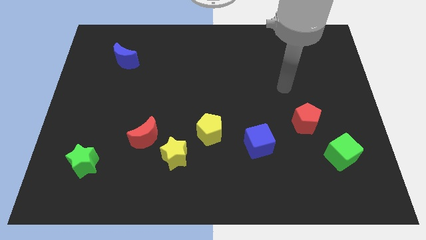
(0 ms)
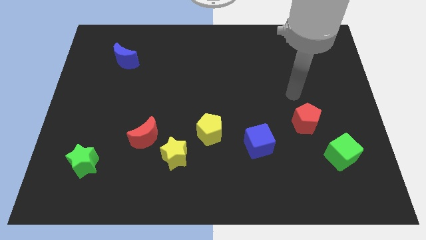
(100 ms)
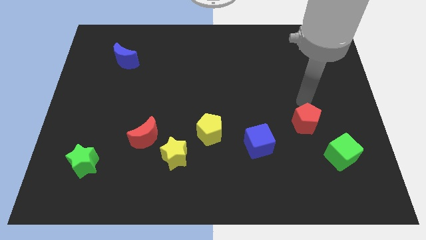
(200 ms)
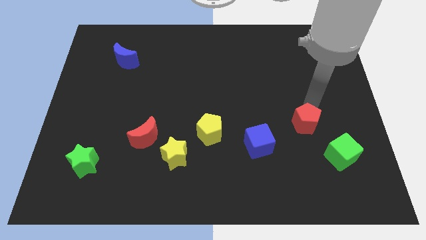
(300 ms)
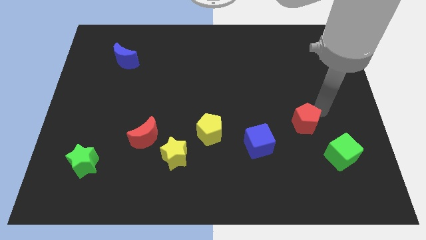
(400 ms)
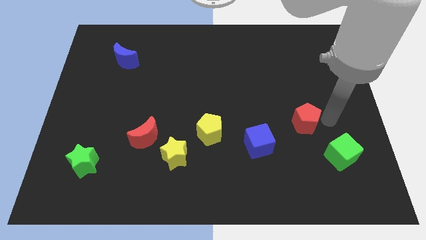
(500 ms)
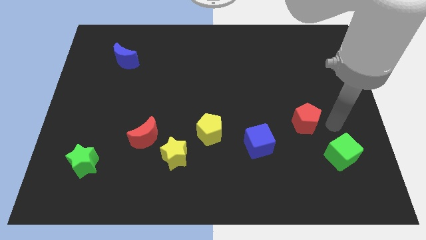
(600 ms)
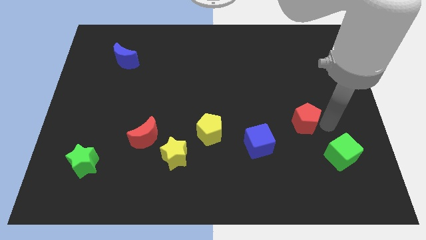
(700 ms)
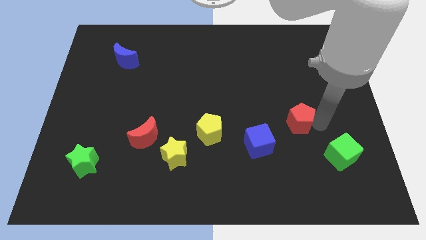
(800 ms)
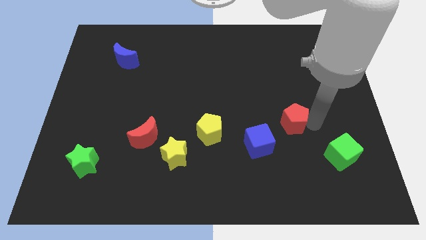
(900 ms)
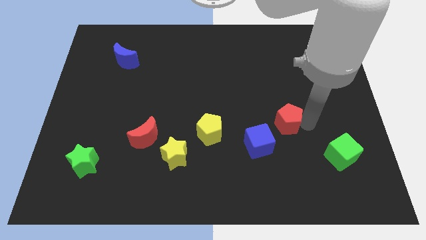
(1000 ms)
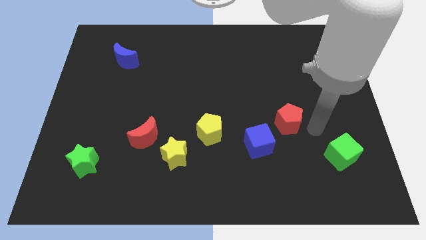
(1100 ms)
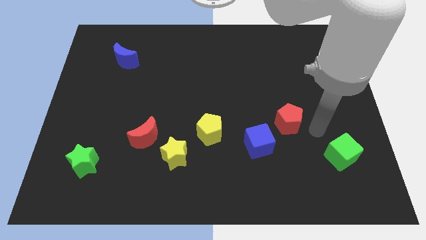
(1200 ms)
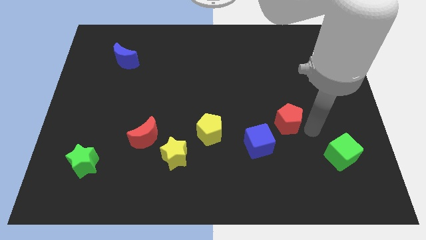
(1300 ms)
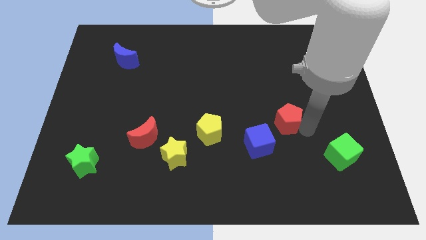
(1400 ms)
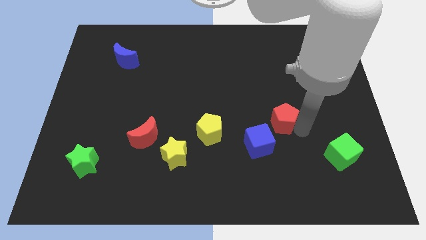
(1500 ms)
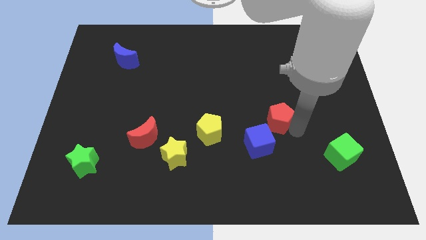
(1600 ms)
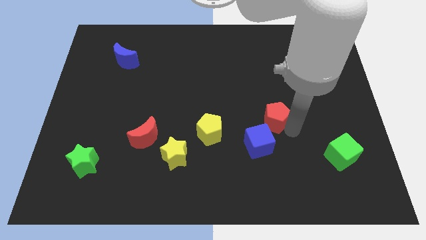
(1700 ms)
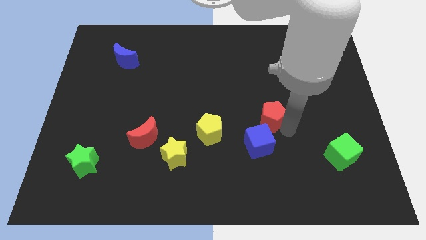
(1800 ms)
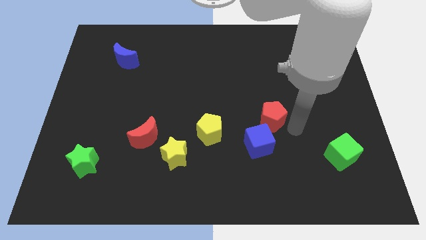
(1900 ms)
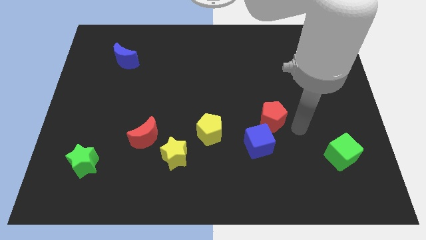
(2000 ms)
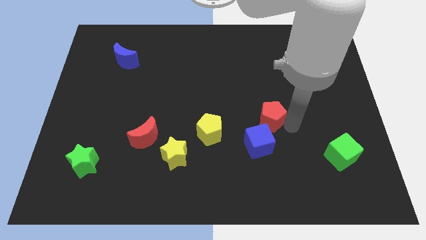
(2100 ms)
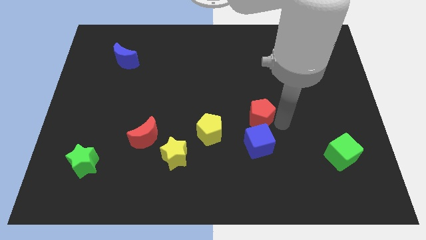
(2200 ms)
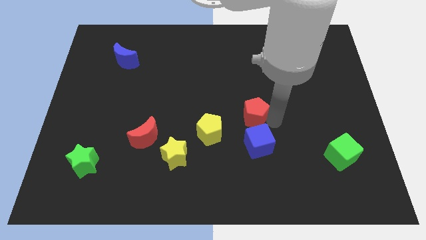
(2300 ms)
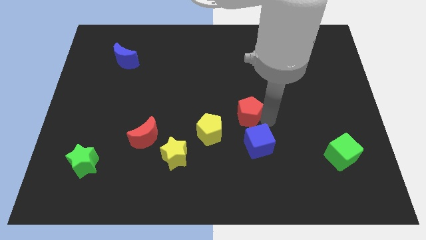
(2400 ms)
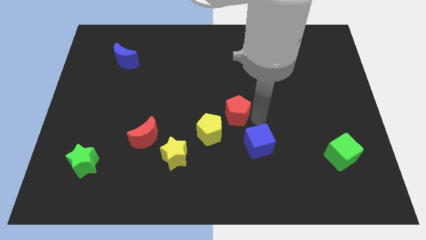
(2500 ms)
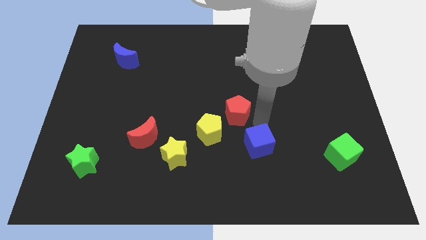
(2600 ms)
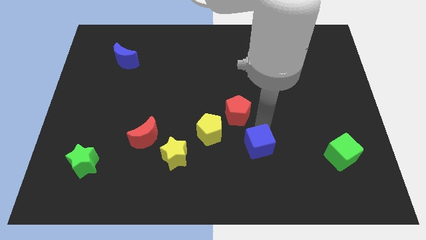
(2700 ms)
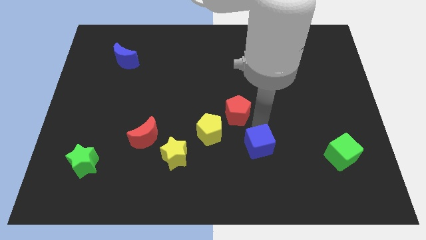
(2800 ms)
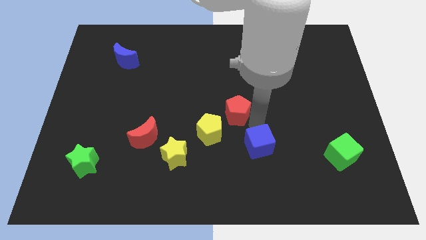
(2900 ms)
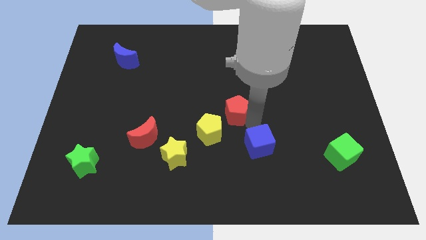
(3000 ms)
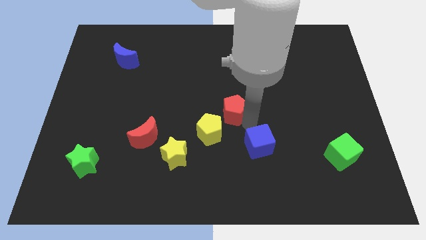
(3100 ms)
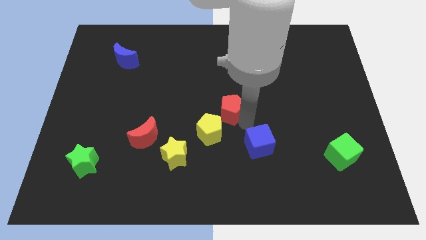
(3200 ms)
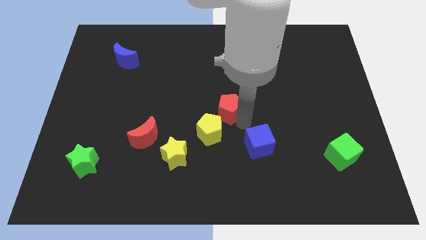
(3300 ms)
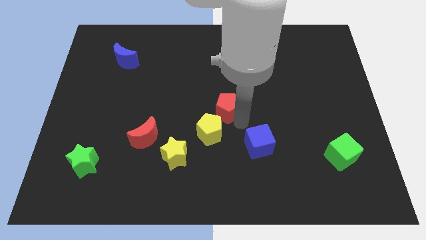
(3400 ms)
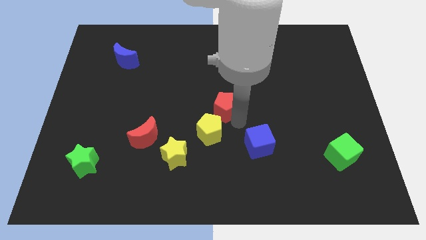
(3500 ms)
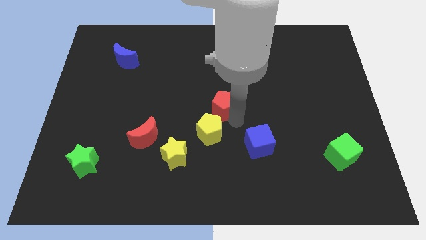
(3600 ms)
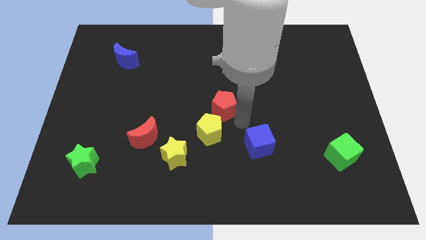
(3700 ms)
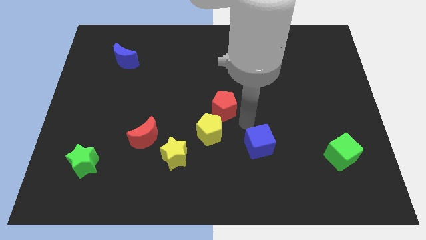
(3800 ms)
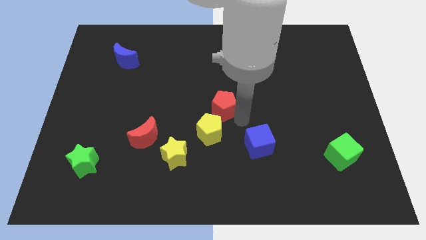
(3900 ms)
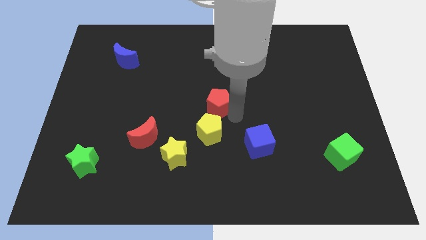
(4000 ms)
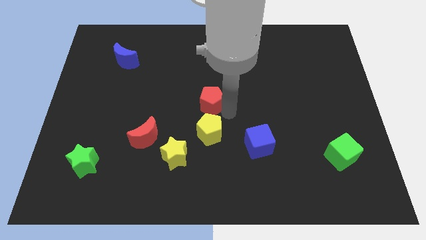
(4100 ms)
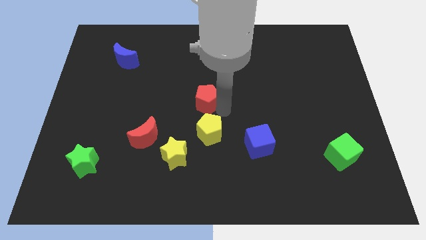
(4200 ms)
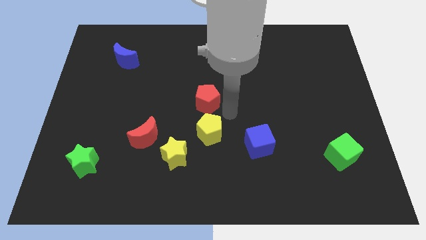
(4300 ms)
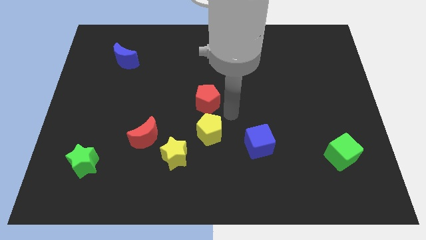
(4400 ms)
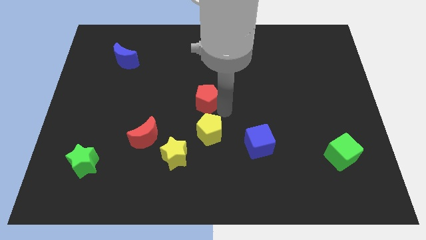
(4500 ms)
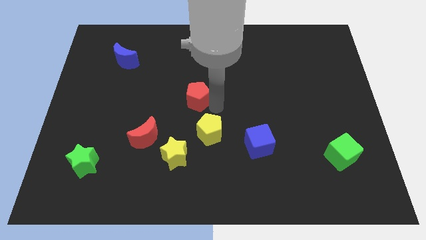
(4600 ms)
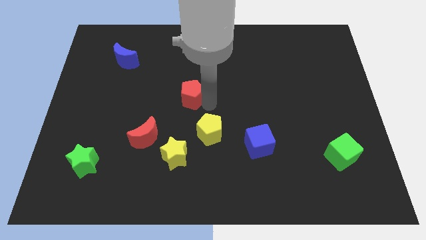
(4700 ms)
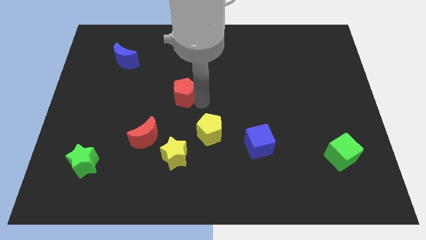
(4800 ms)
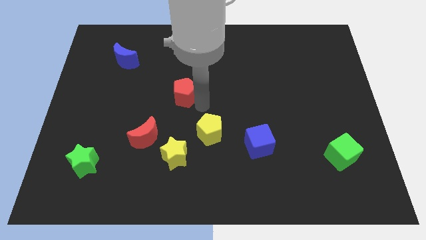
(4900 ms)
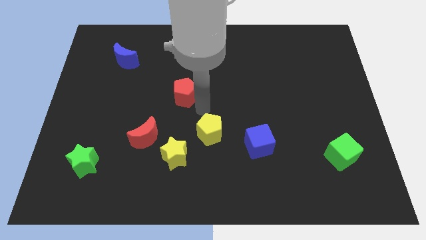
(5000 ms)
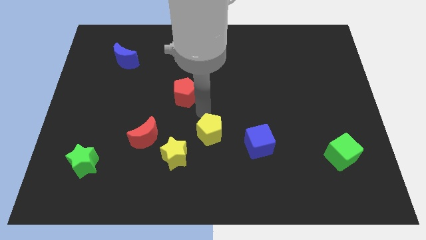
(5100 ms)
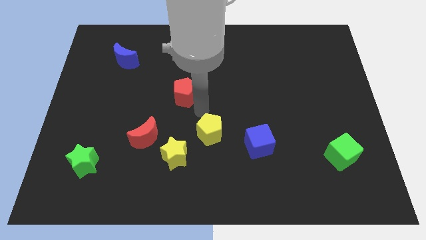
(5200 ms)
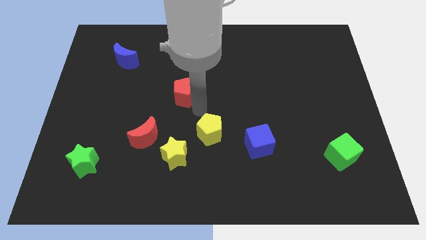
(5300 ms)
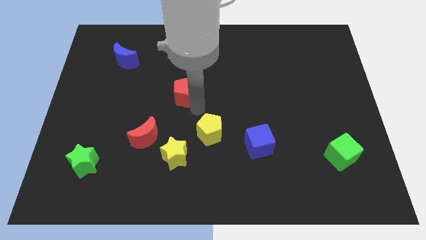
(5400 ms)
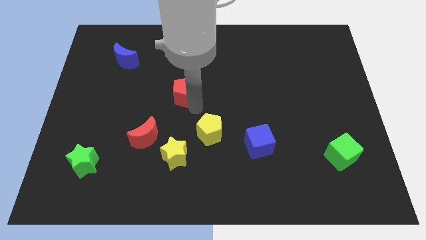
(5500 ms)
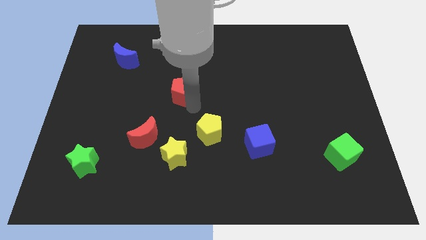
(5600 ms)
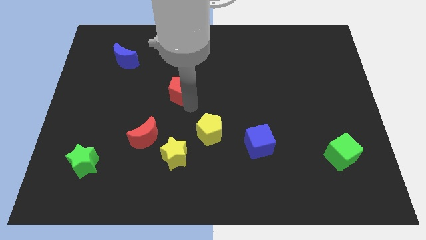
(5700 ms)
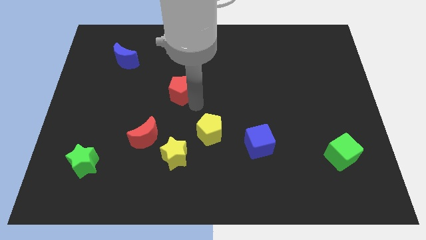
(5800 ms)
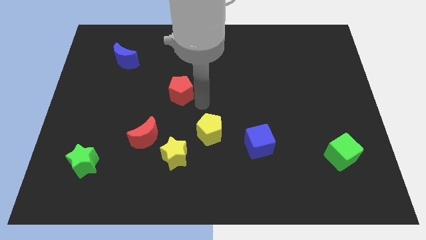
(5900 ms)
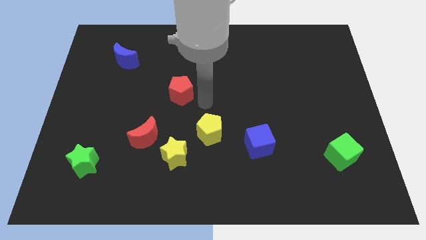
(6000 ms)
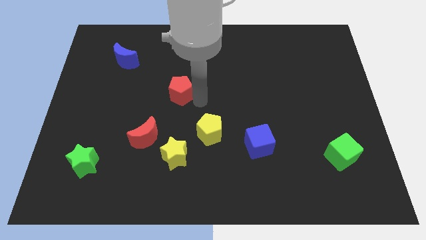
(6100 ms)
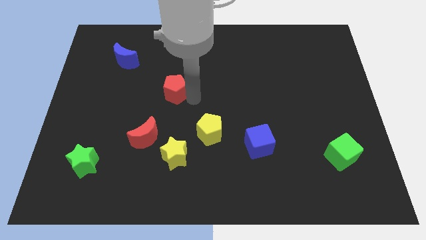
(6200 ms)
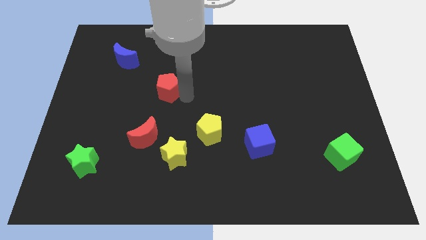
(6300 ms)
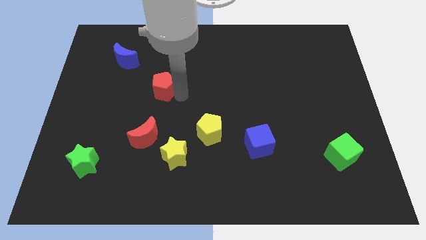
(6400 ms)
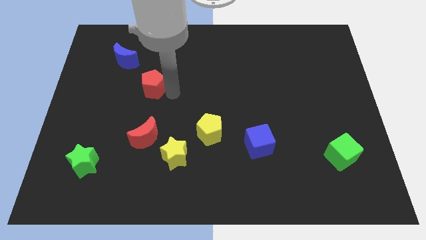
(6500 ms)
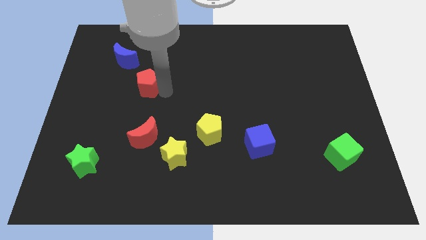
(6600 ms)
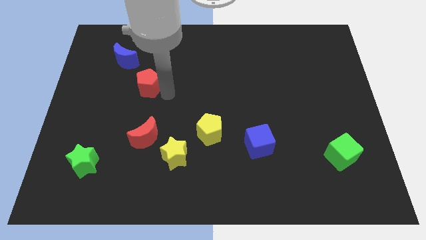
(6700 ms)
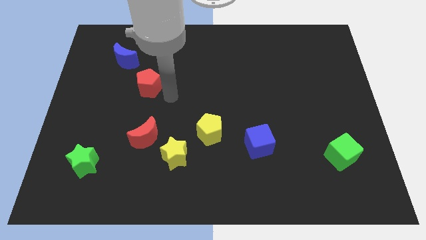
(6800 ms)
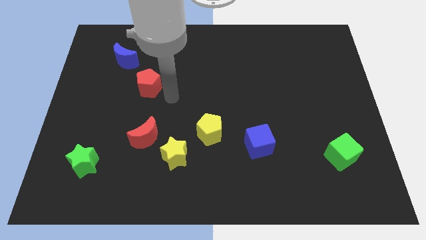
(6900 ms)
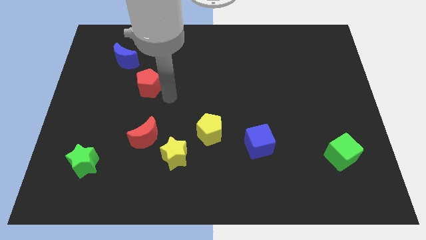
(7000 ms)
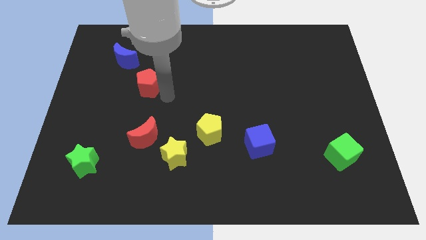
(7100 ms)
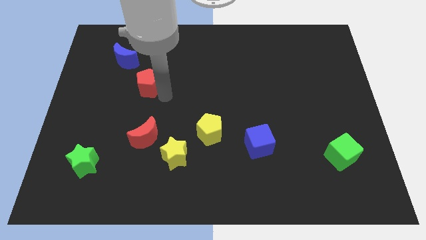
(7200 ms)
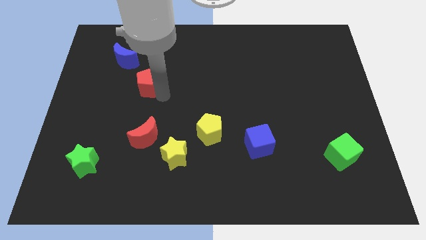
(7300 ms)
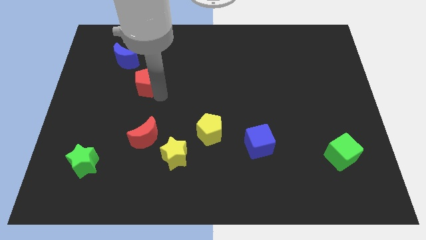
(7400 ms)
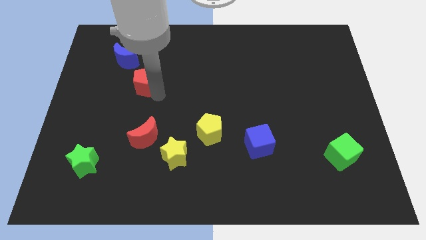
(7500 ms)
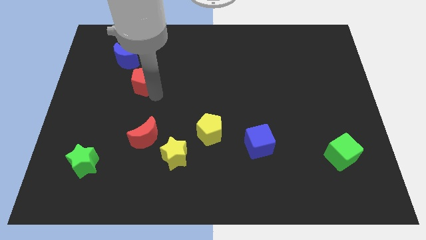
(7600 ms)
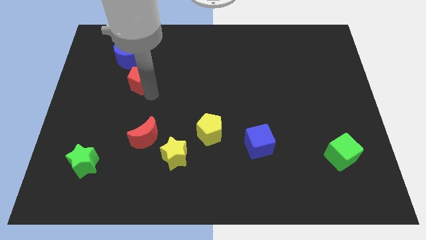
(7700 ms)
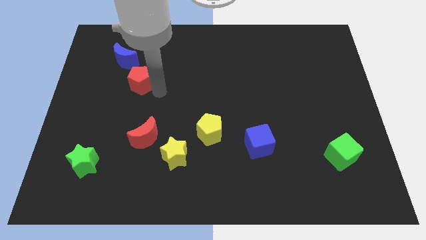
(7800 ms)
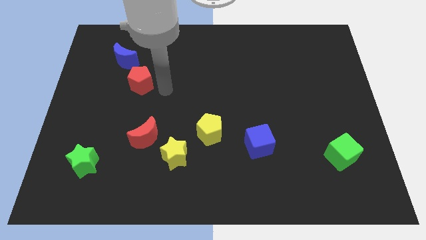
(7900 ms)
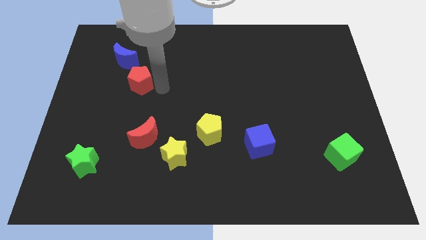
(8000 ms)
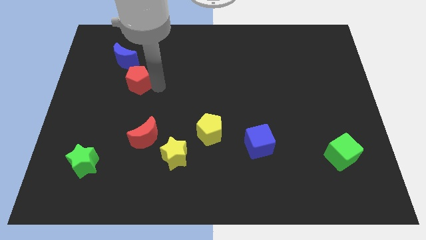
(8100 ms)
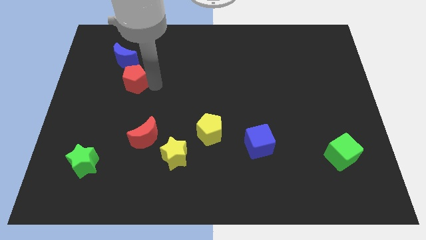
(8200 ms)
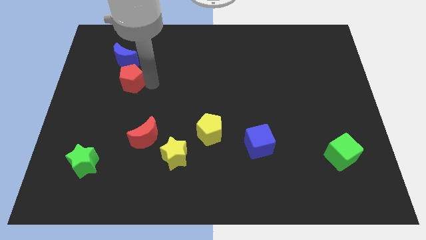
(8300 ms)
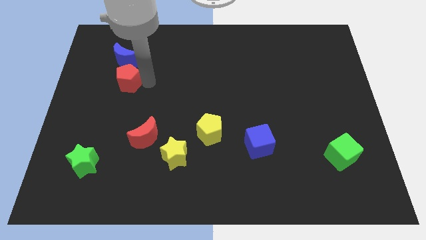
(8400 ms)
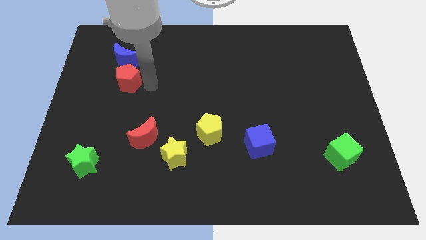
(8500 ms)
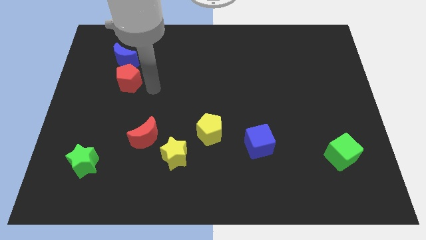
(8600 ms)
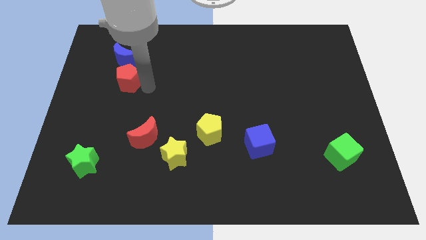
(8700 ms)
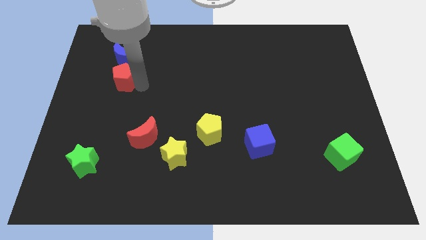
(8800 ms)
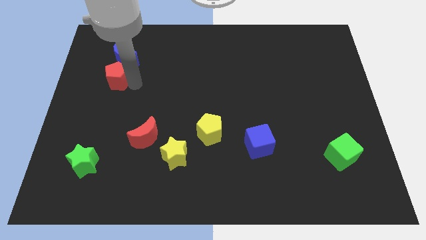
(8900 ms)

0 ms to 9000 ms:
slide the red pentagon to the bottom left side of the blue moon
